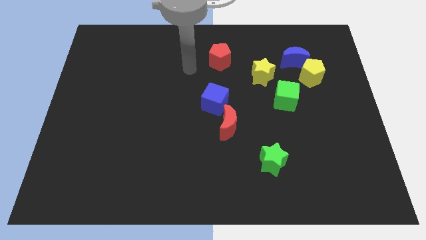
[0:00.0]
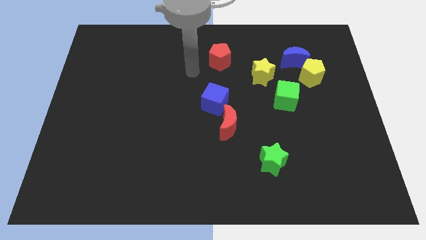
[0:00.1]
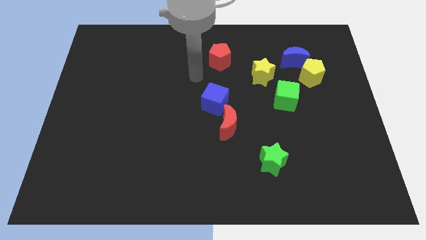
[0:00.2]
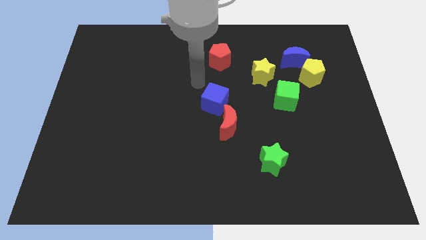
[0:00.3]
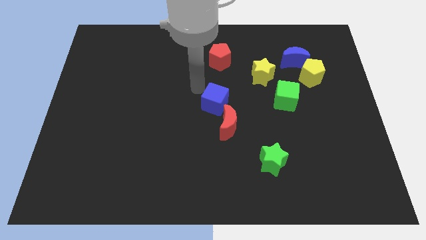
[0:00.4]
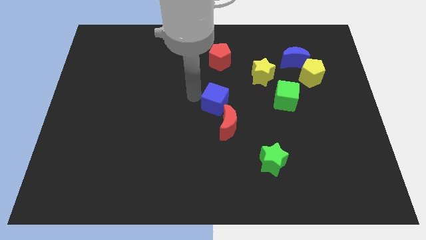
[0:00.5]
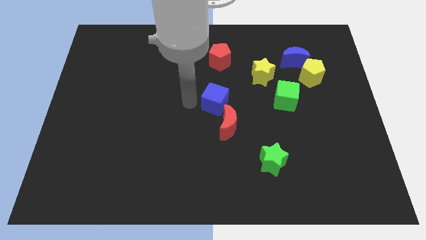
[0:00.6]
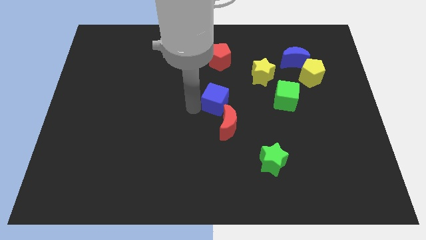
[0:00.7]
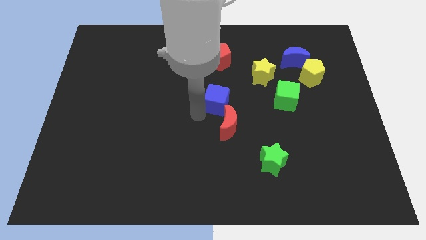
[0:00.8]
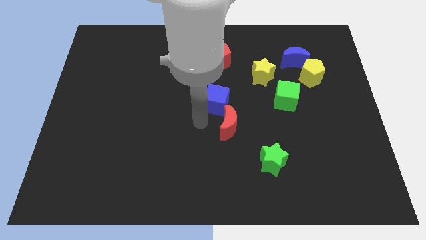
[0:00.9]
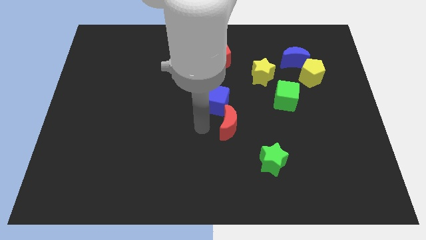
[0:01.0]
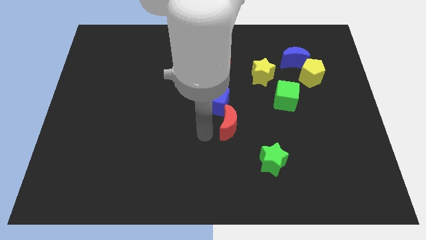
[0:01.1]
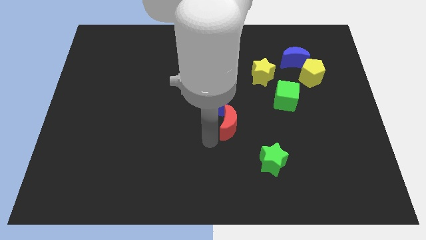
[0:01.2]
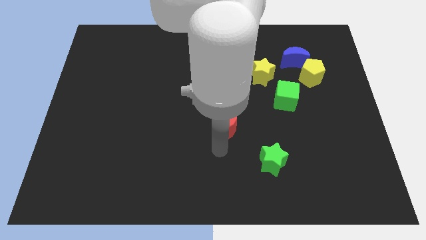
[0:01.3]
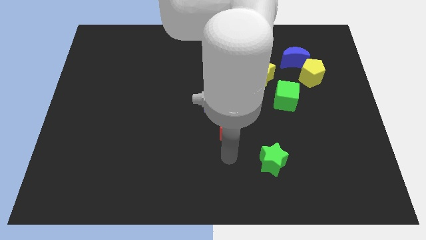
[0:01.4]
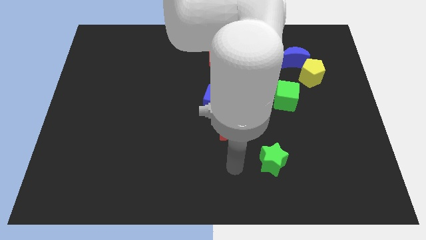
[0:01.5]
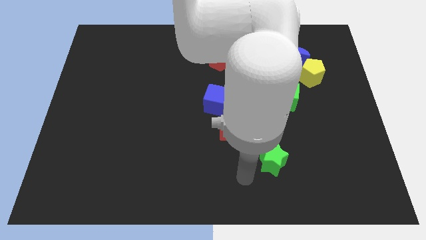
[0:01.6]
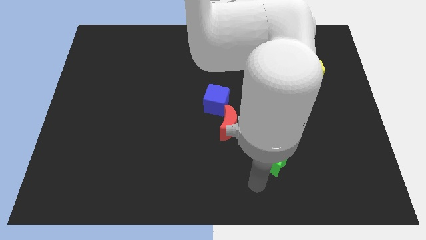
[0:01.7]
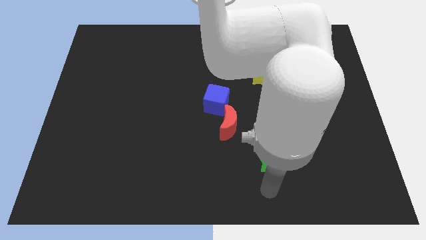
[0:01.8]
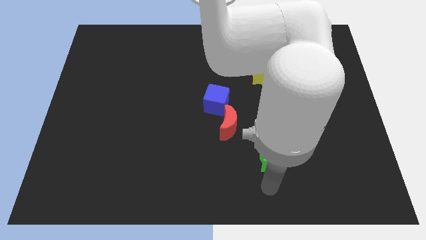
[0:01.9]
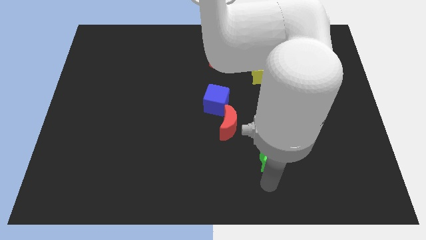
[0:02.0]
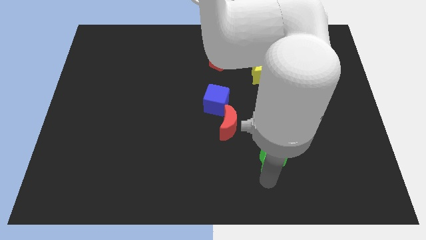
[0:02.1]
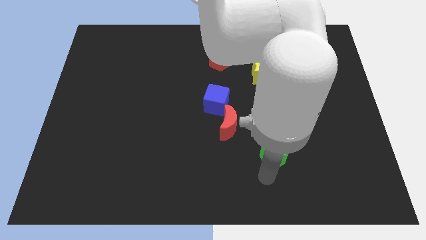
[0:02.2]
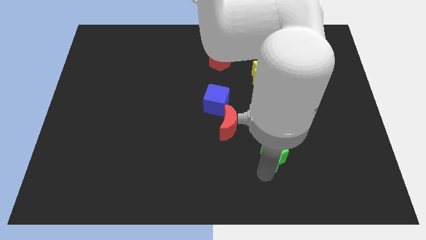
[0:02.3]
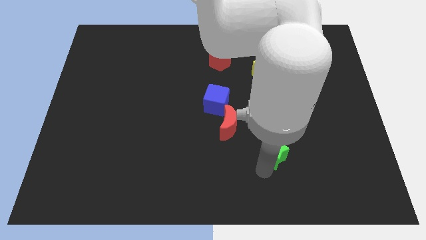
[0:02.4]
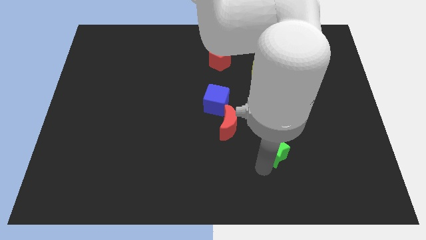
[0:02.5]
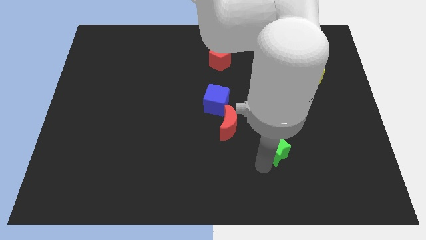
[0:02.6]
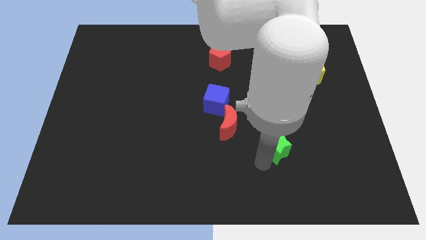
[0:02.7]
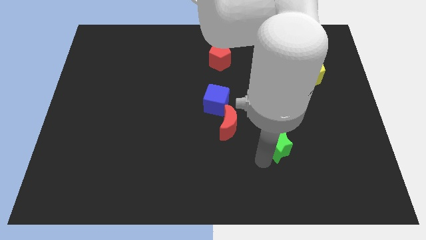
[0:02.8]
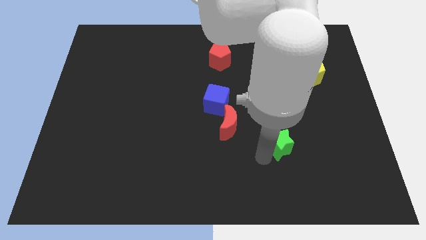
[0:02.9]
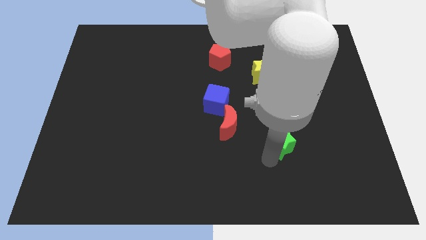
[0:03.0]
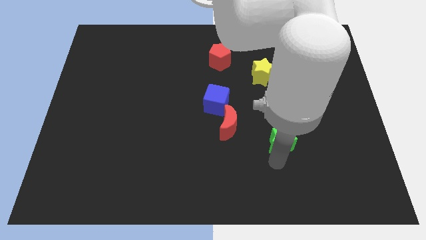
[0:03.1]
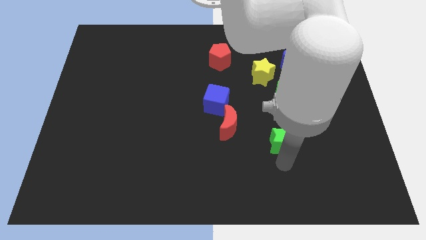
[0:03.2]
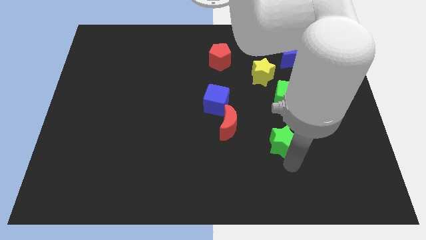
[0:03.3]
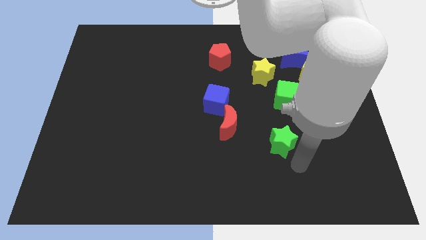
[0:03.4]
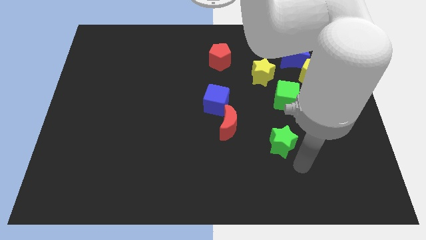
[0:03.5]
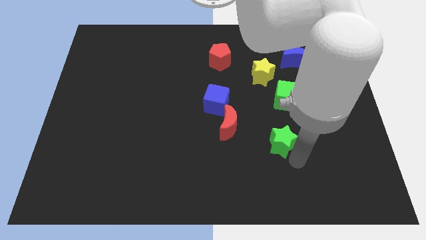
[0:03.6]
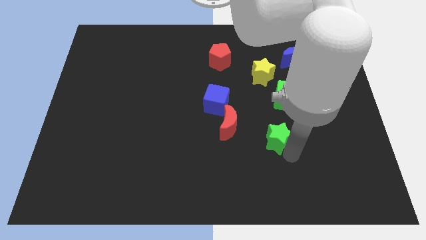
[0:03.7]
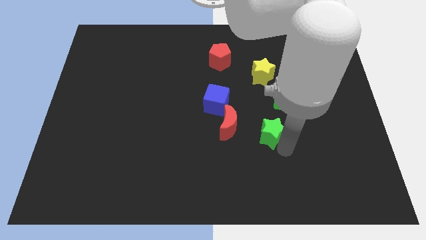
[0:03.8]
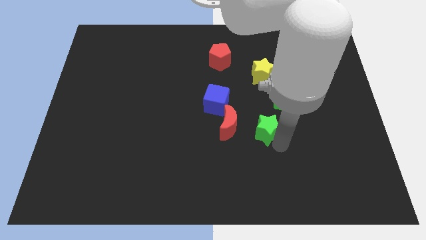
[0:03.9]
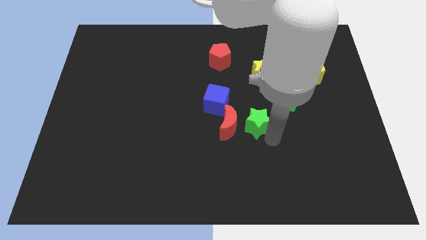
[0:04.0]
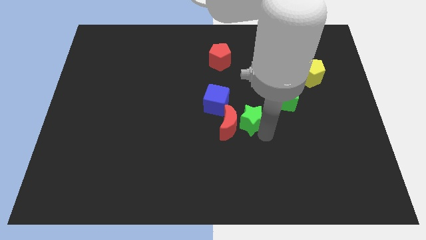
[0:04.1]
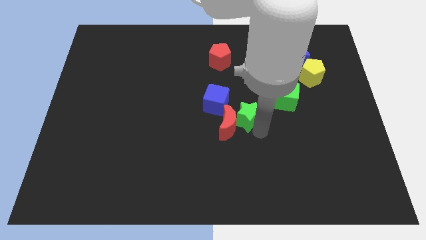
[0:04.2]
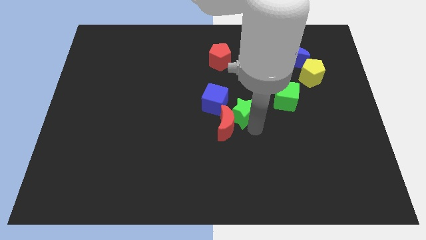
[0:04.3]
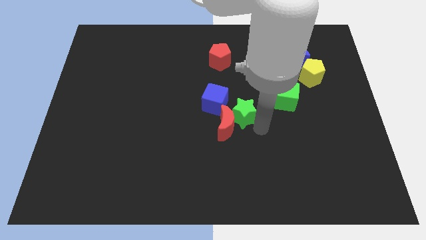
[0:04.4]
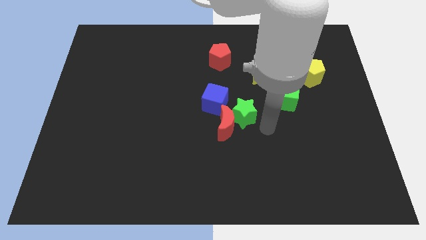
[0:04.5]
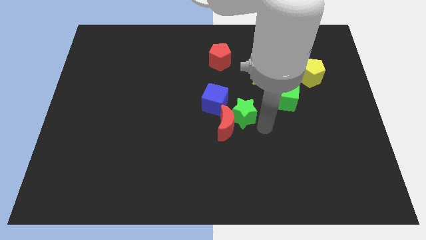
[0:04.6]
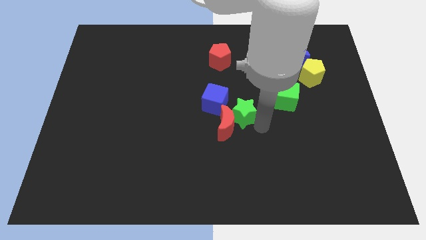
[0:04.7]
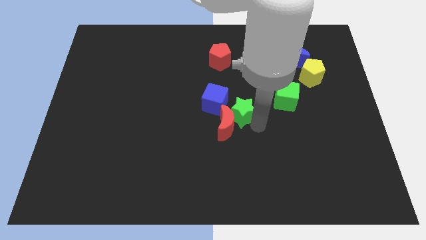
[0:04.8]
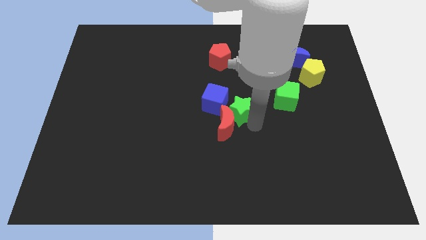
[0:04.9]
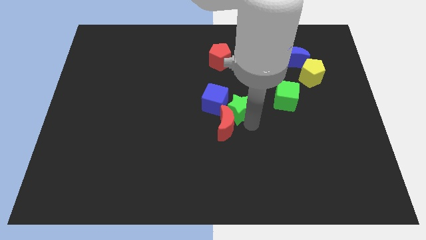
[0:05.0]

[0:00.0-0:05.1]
put the green star close to the blue cube

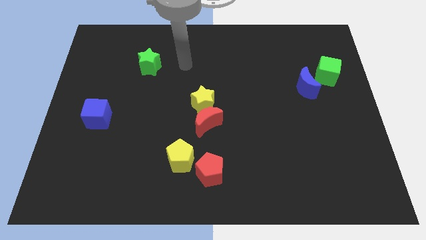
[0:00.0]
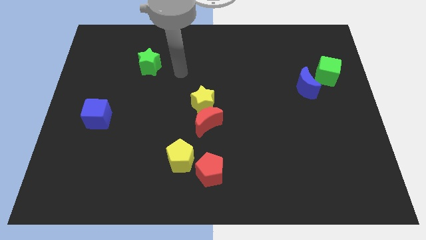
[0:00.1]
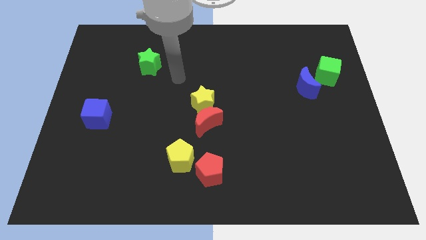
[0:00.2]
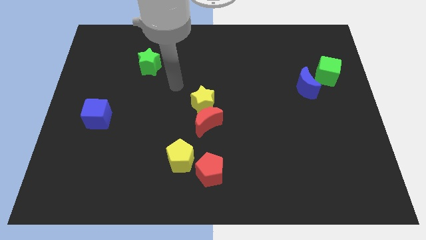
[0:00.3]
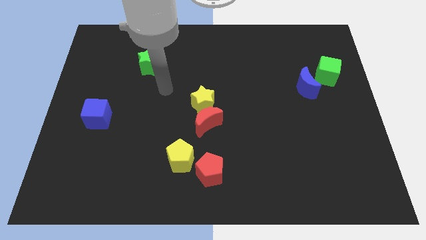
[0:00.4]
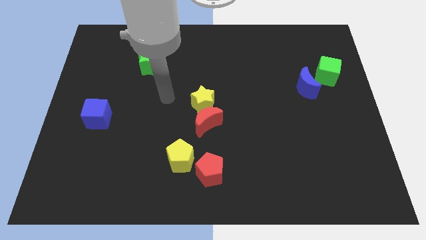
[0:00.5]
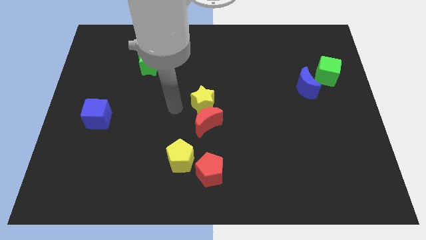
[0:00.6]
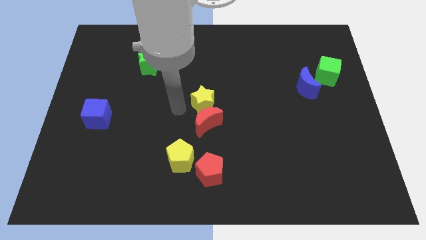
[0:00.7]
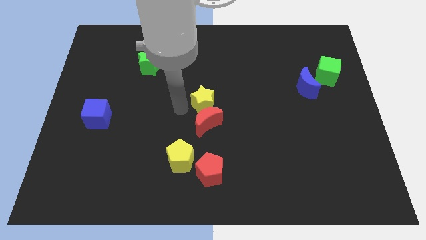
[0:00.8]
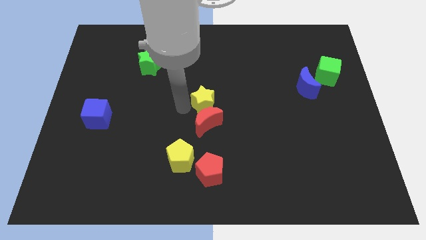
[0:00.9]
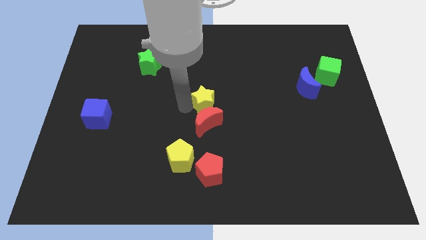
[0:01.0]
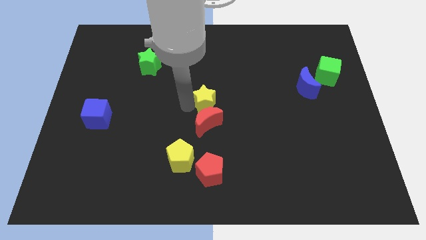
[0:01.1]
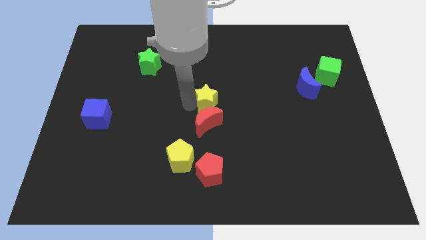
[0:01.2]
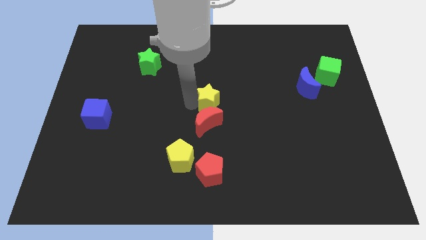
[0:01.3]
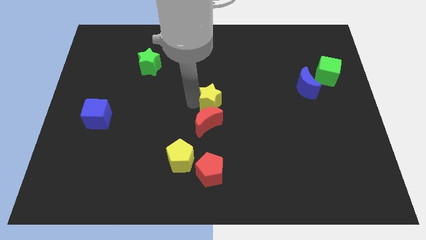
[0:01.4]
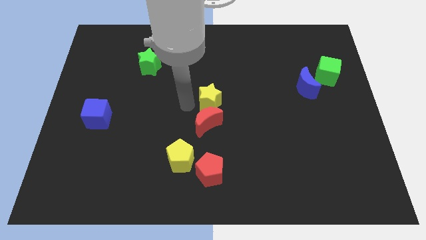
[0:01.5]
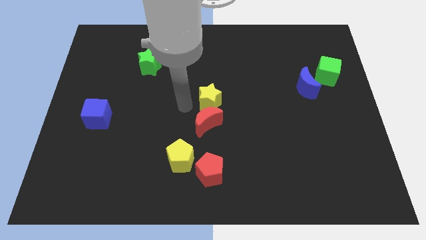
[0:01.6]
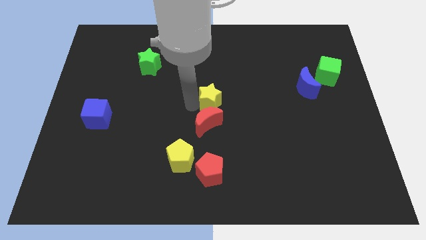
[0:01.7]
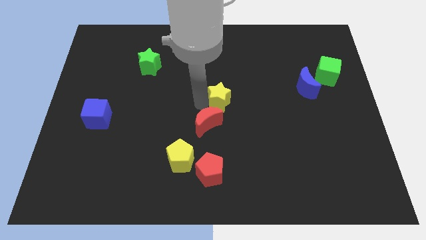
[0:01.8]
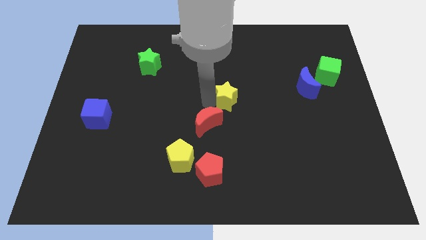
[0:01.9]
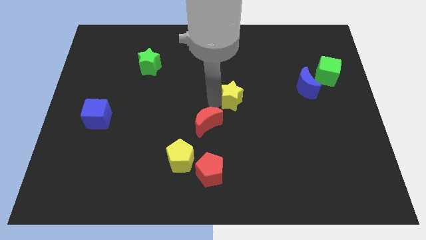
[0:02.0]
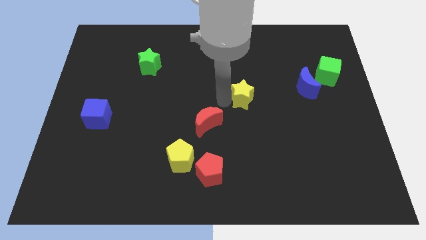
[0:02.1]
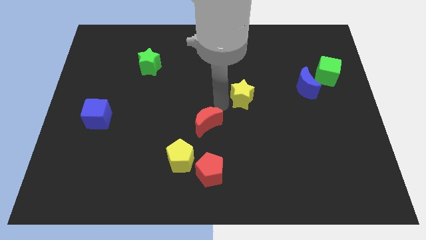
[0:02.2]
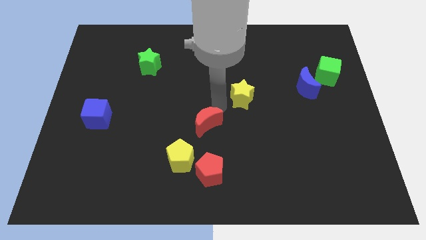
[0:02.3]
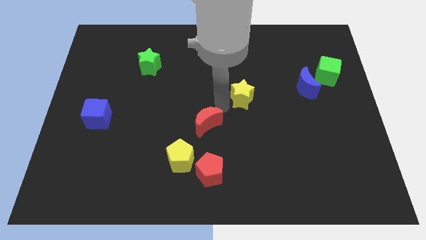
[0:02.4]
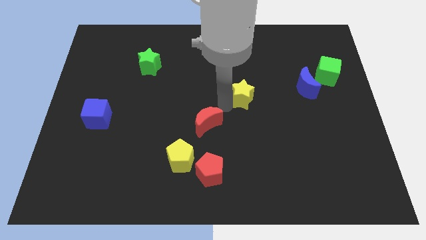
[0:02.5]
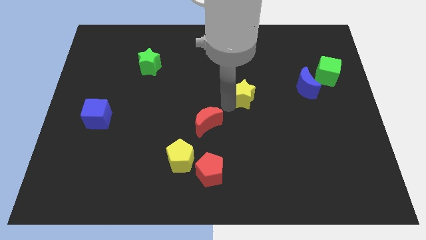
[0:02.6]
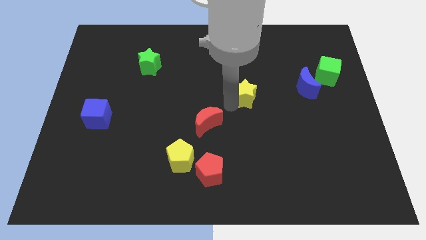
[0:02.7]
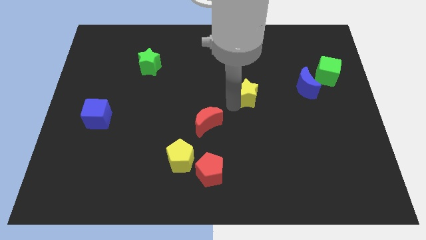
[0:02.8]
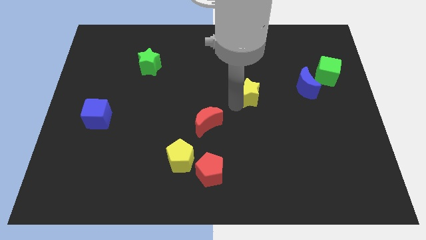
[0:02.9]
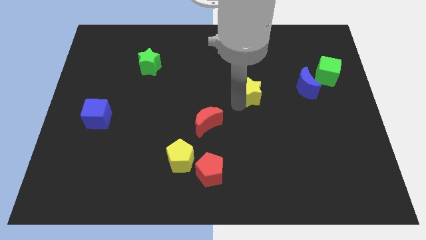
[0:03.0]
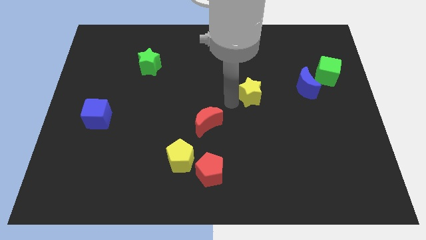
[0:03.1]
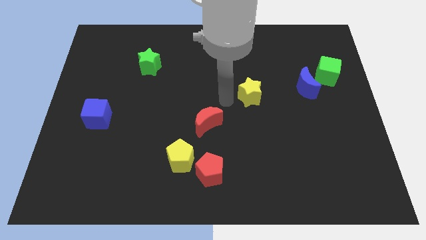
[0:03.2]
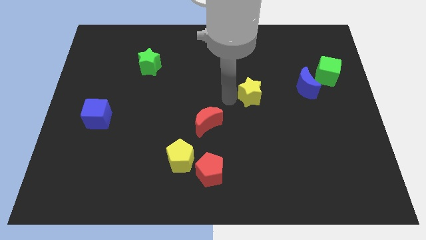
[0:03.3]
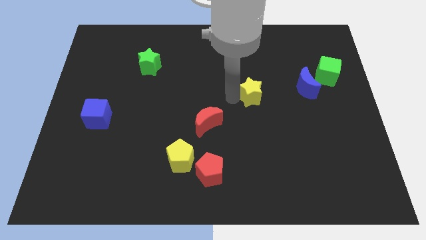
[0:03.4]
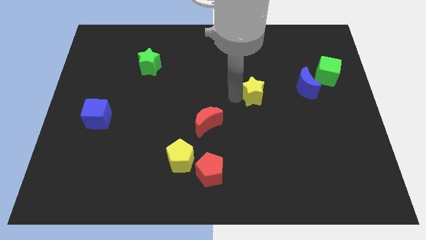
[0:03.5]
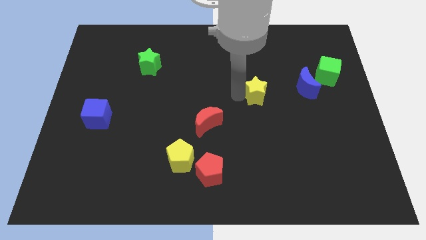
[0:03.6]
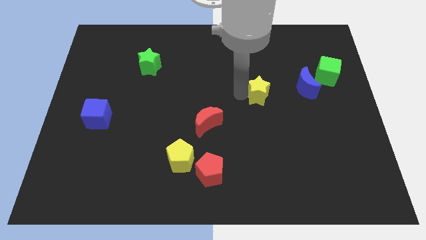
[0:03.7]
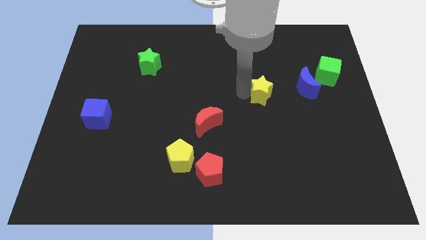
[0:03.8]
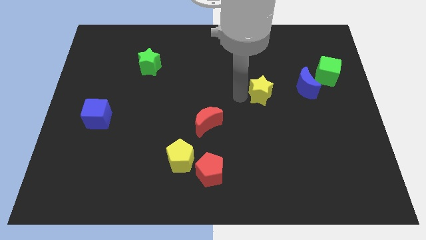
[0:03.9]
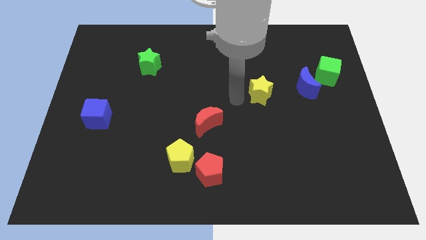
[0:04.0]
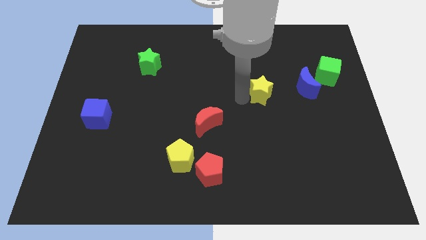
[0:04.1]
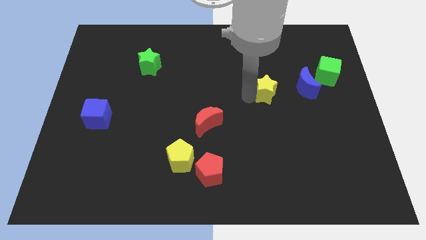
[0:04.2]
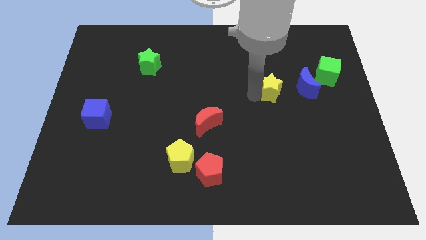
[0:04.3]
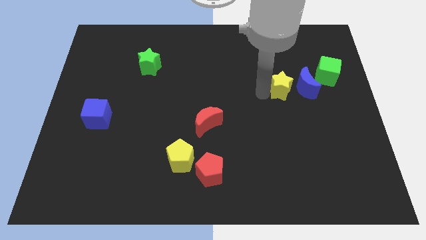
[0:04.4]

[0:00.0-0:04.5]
move the yellow star close to the blue moon
